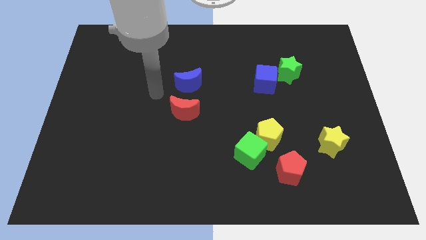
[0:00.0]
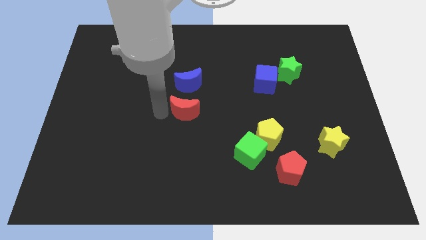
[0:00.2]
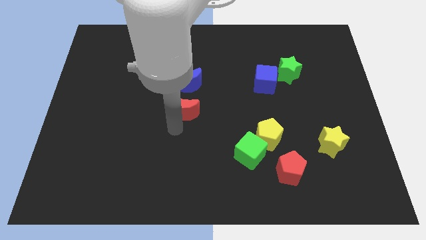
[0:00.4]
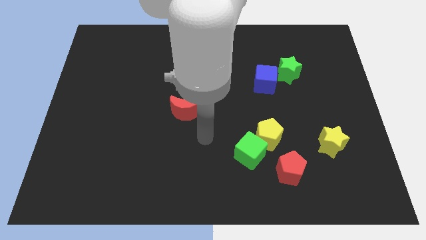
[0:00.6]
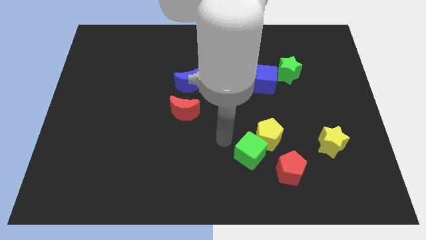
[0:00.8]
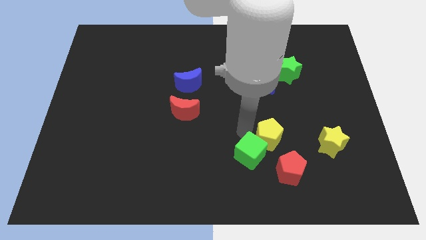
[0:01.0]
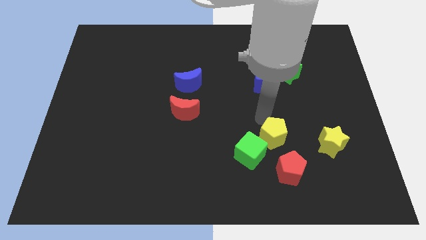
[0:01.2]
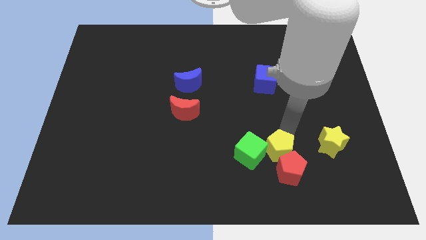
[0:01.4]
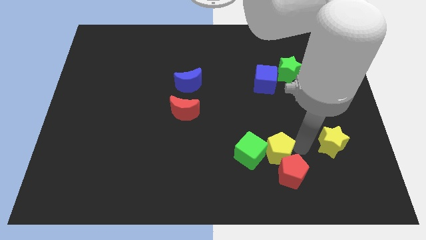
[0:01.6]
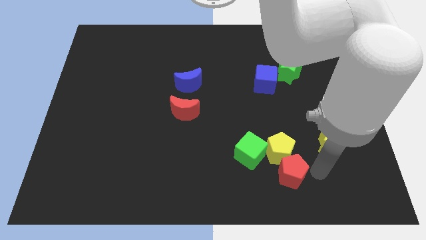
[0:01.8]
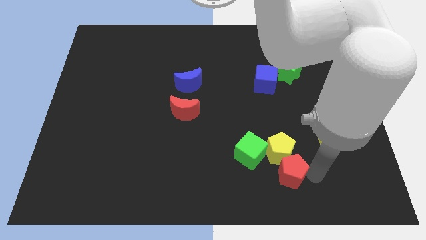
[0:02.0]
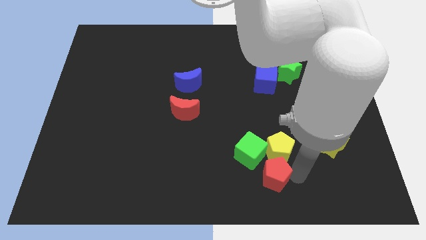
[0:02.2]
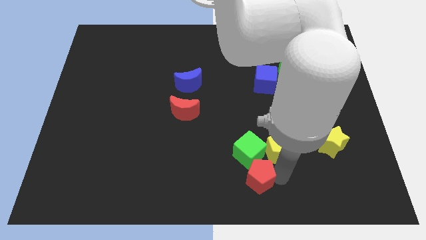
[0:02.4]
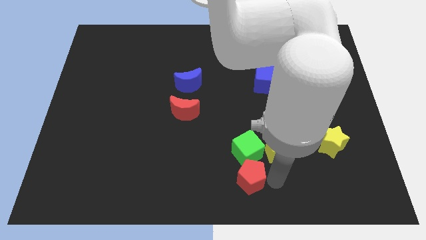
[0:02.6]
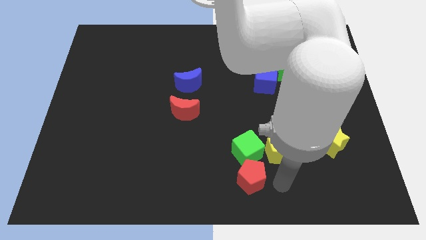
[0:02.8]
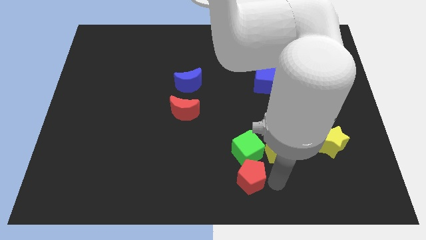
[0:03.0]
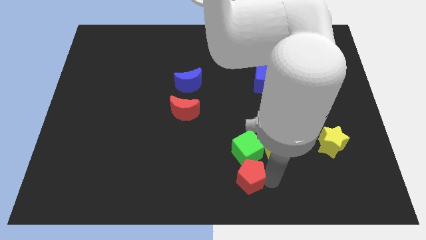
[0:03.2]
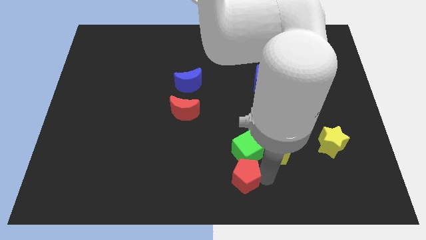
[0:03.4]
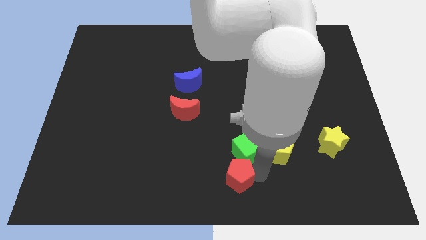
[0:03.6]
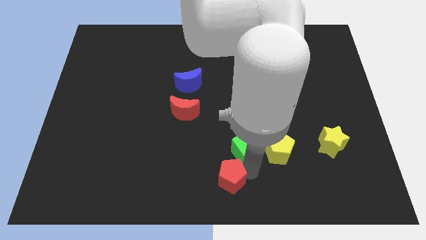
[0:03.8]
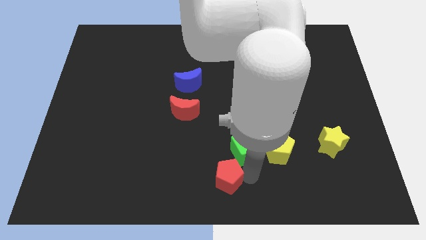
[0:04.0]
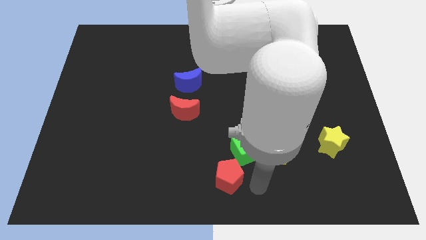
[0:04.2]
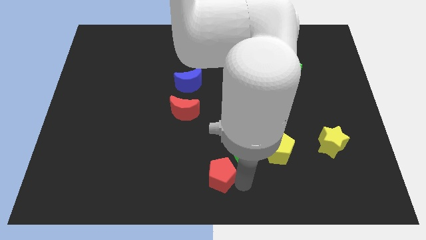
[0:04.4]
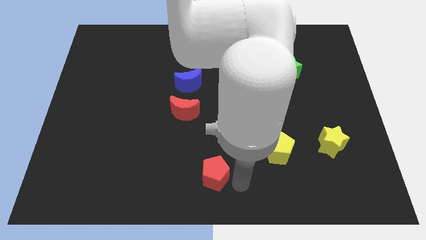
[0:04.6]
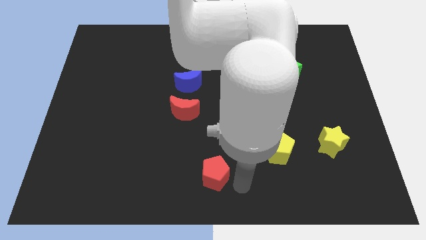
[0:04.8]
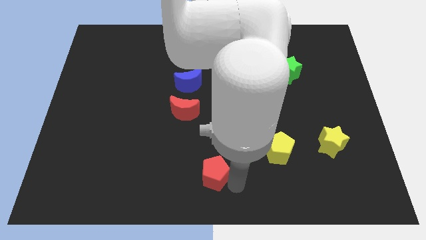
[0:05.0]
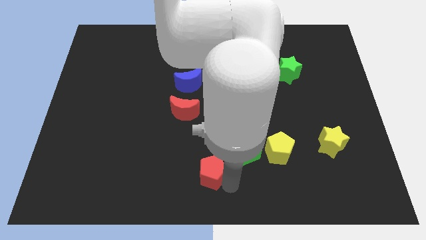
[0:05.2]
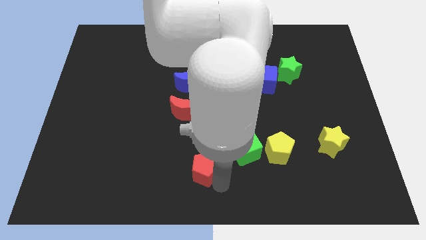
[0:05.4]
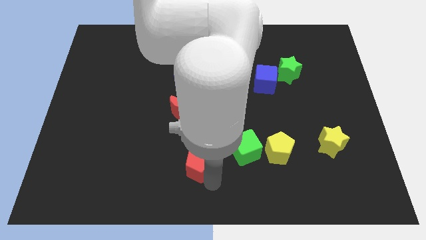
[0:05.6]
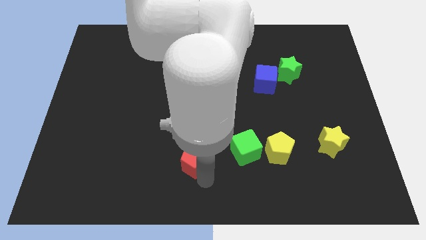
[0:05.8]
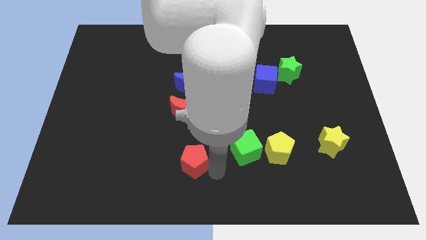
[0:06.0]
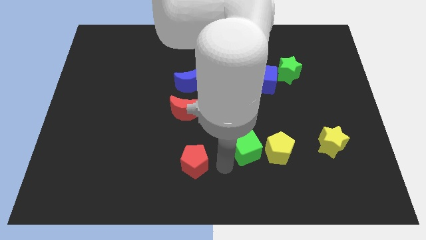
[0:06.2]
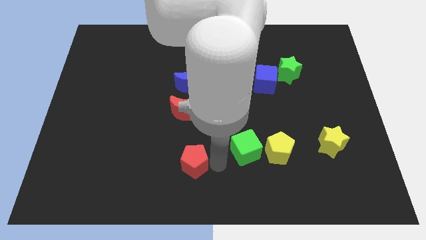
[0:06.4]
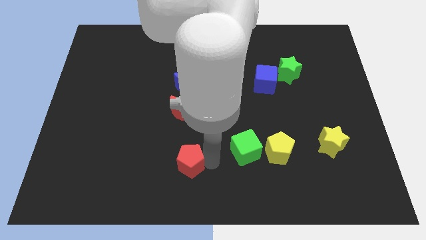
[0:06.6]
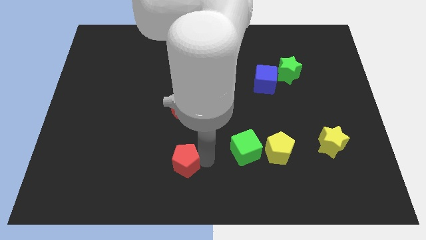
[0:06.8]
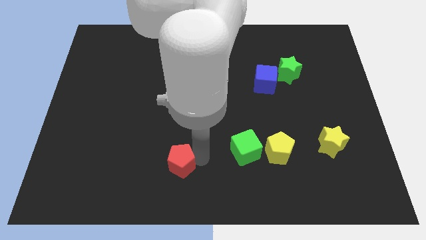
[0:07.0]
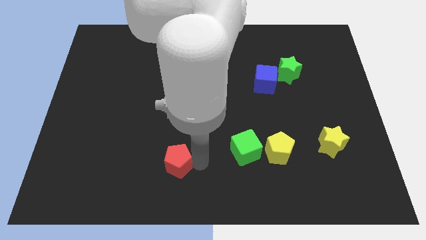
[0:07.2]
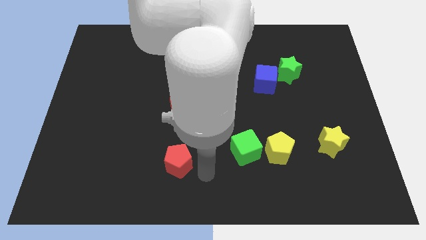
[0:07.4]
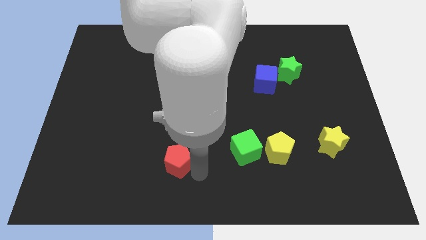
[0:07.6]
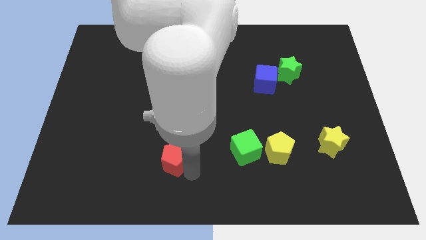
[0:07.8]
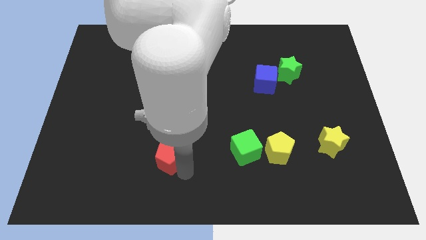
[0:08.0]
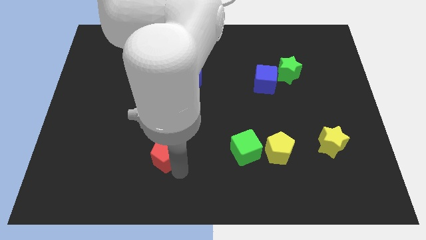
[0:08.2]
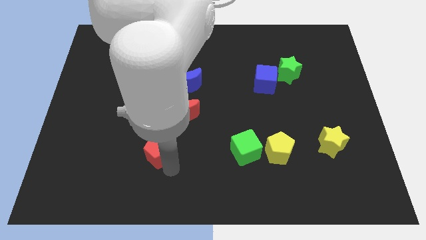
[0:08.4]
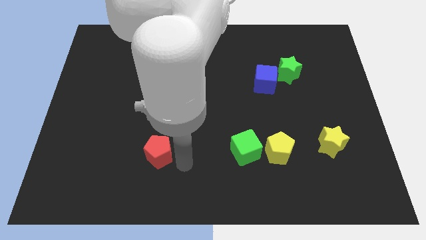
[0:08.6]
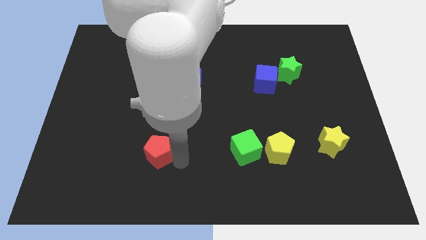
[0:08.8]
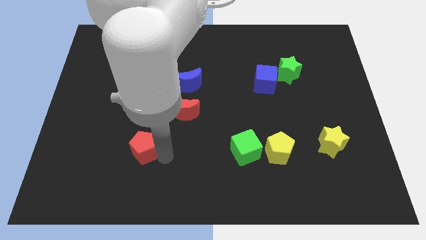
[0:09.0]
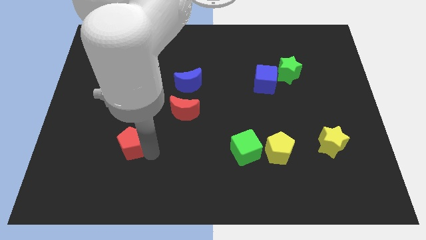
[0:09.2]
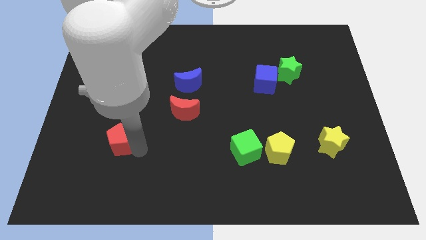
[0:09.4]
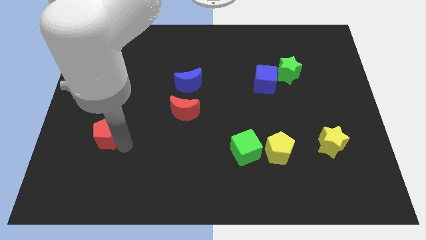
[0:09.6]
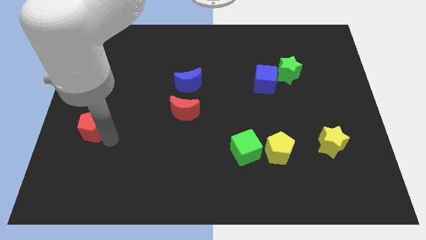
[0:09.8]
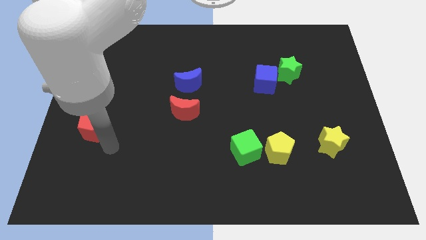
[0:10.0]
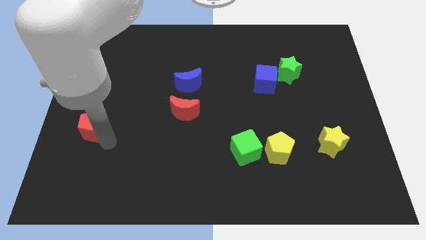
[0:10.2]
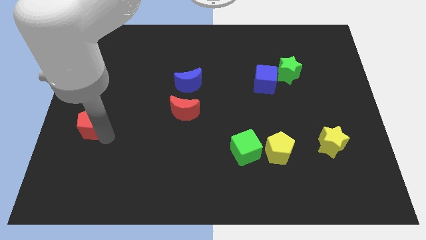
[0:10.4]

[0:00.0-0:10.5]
put the red pentagon to the left side

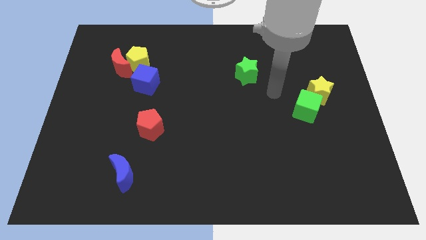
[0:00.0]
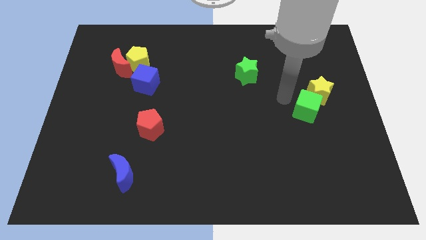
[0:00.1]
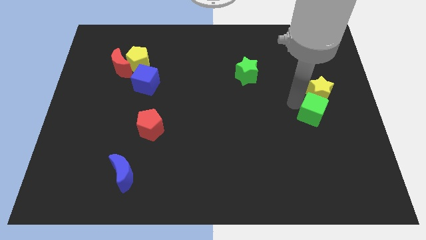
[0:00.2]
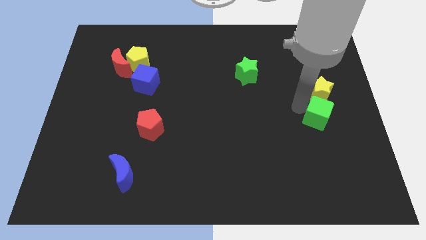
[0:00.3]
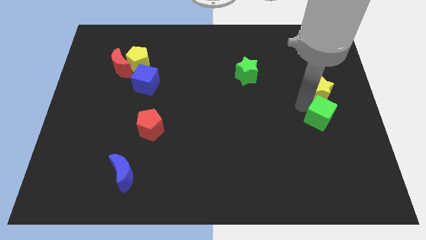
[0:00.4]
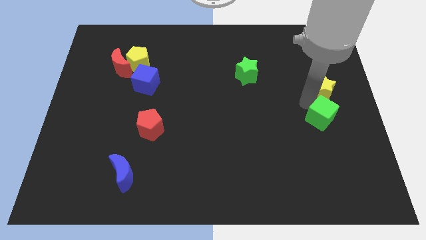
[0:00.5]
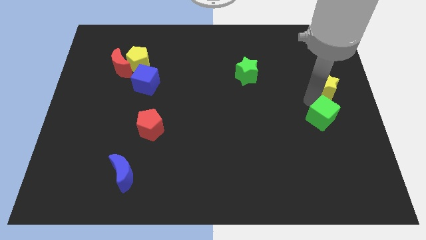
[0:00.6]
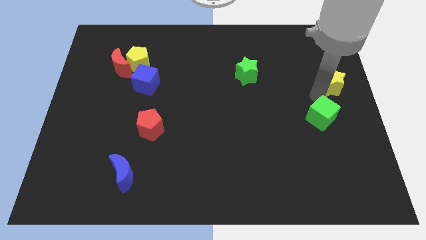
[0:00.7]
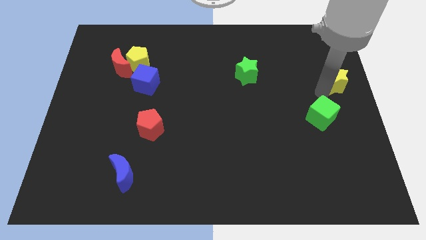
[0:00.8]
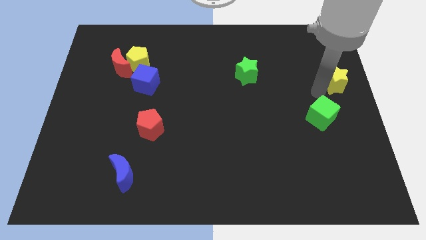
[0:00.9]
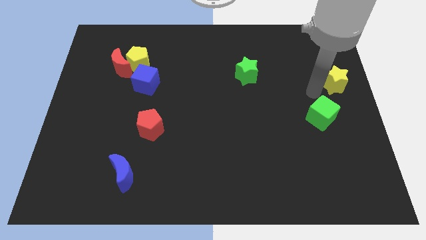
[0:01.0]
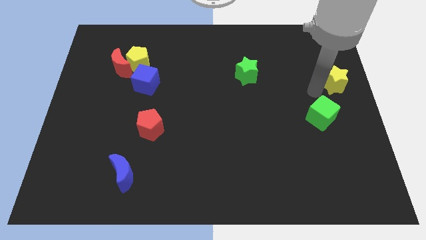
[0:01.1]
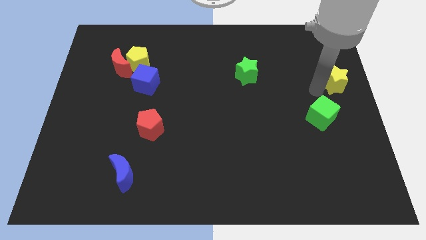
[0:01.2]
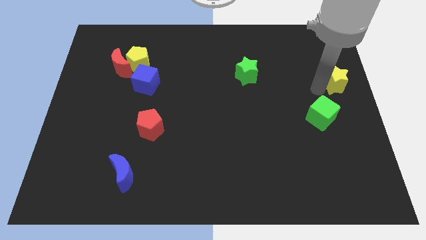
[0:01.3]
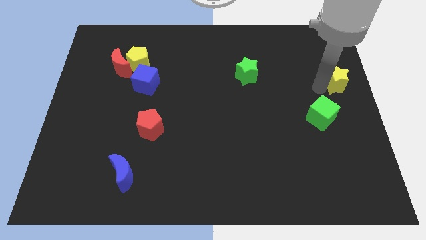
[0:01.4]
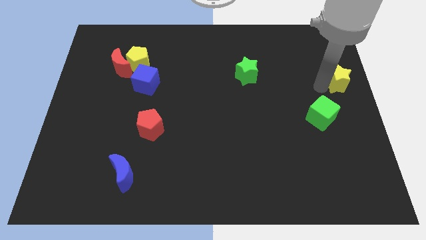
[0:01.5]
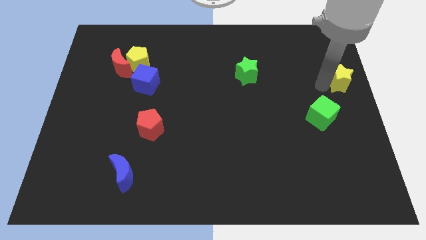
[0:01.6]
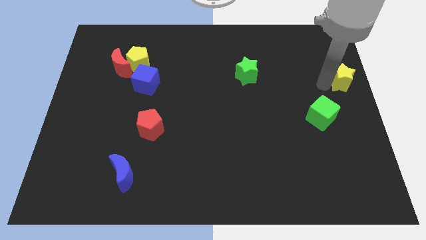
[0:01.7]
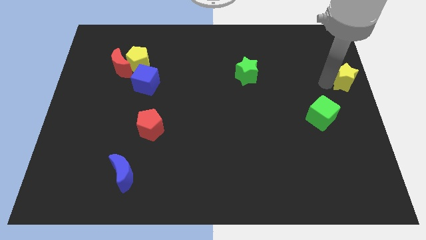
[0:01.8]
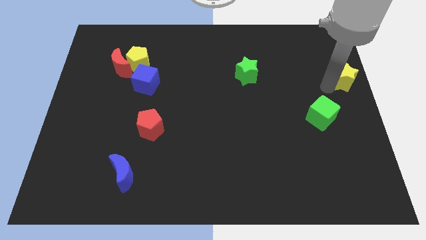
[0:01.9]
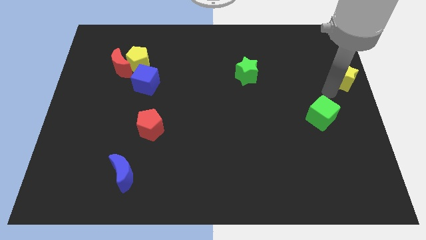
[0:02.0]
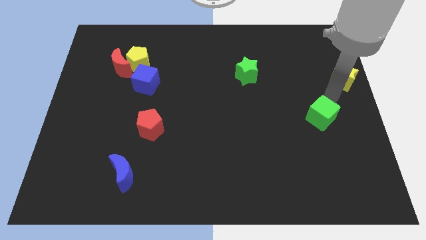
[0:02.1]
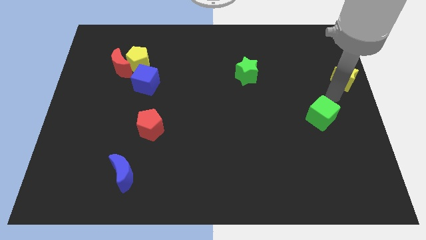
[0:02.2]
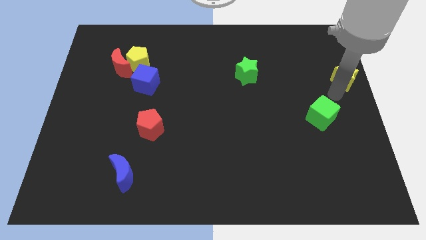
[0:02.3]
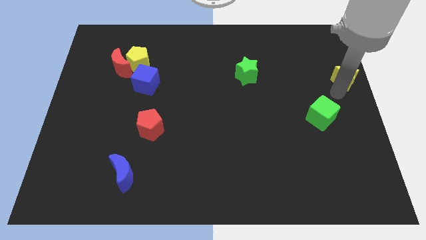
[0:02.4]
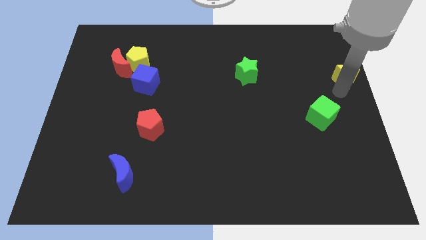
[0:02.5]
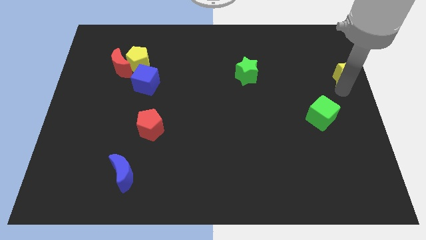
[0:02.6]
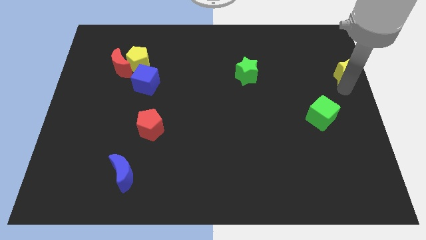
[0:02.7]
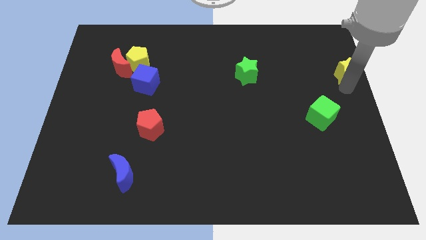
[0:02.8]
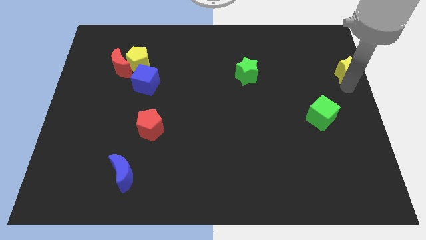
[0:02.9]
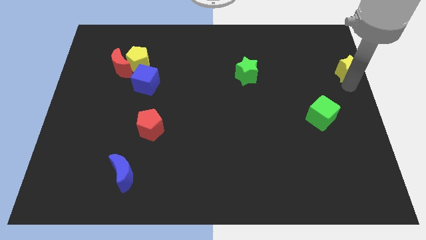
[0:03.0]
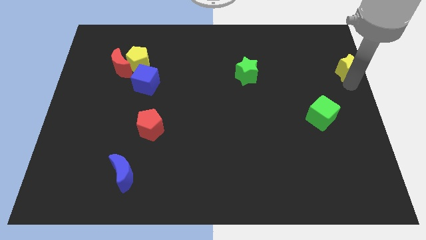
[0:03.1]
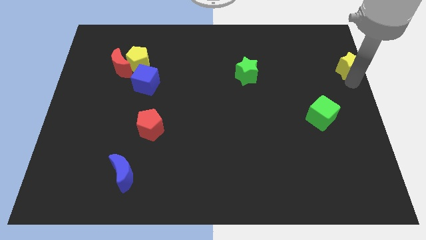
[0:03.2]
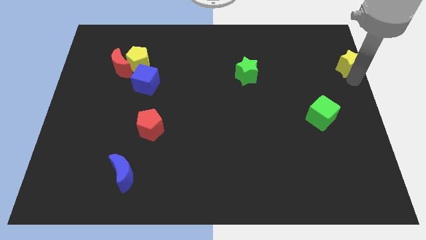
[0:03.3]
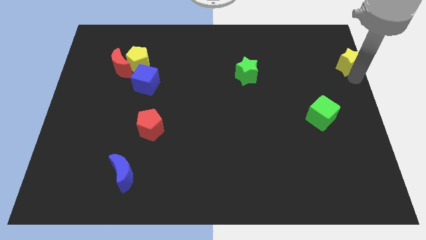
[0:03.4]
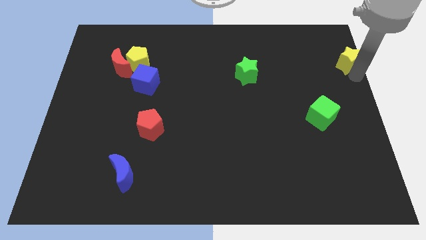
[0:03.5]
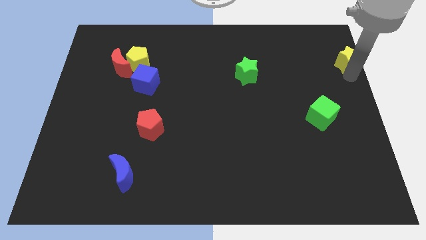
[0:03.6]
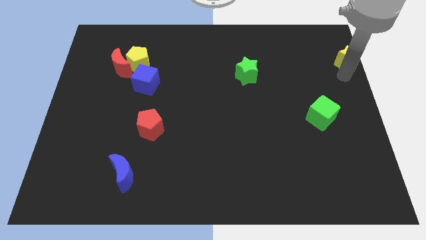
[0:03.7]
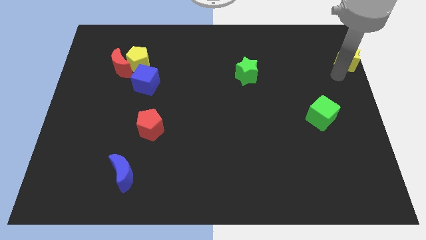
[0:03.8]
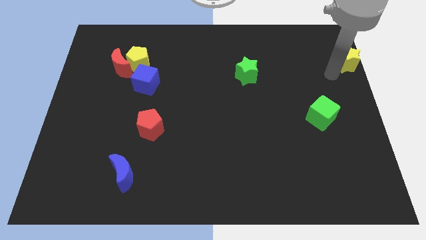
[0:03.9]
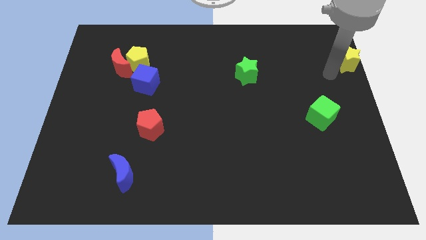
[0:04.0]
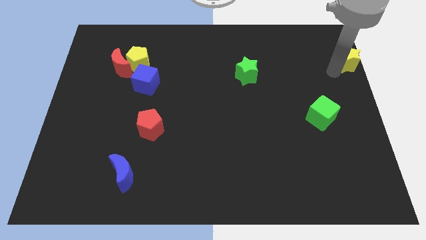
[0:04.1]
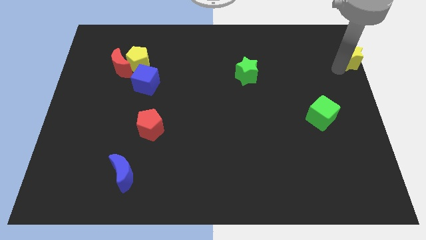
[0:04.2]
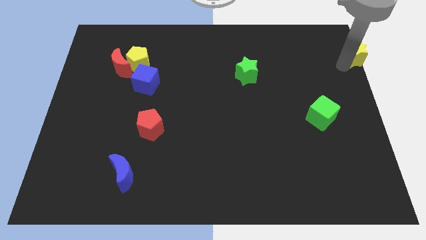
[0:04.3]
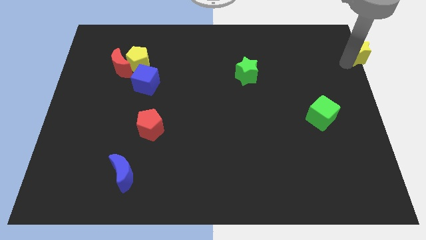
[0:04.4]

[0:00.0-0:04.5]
put the yellow star to the upper right corner
